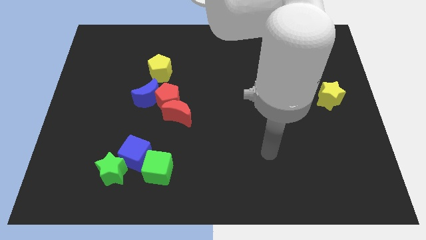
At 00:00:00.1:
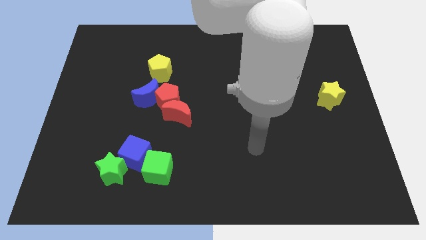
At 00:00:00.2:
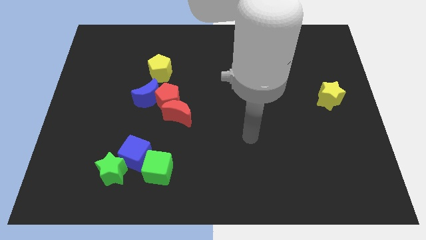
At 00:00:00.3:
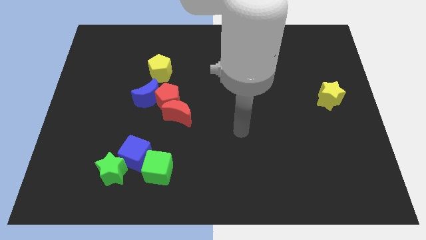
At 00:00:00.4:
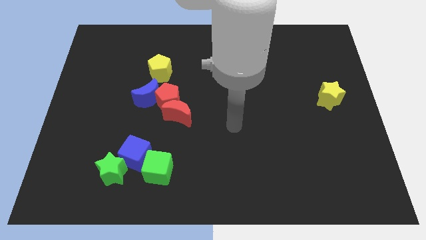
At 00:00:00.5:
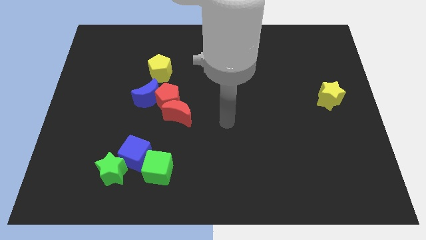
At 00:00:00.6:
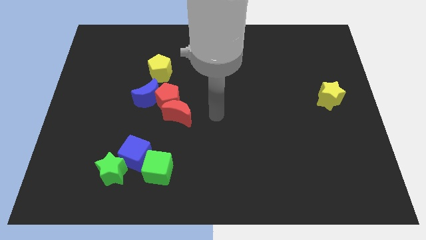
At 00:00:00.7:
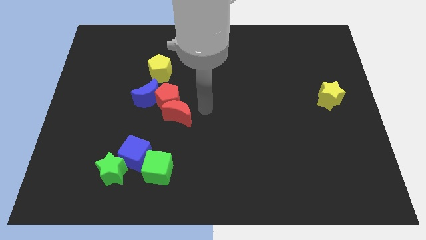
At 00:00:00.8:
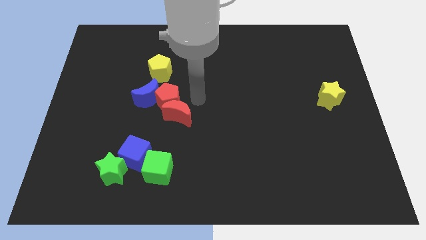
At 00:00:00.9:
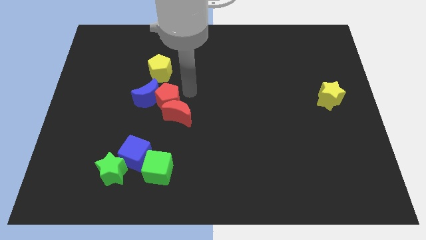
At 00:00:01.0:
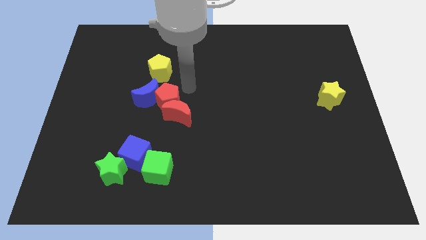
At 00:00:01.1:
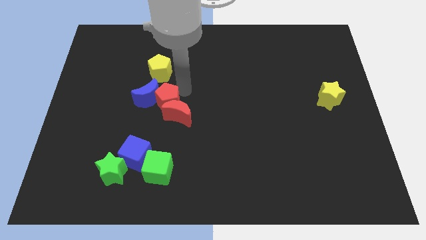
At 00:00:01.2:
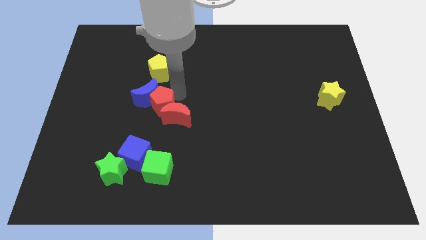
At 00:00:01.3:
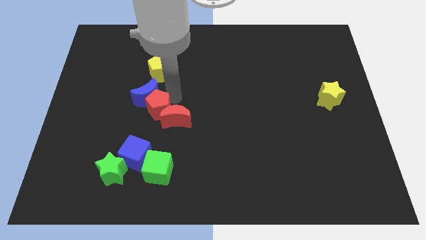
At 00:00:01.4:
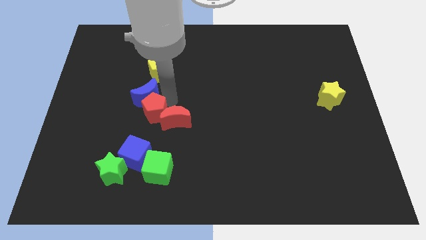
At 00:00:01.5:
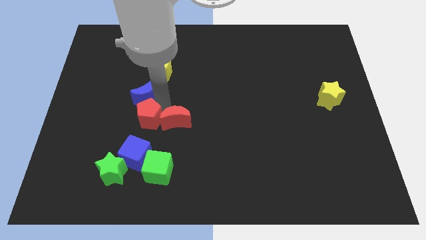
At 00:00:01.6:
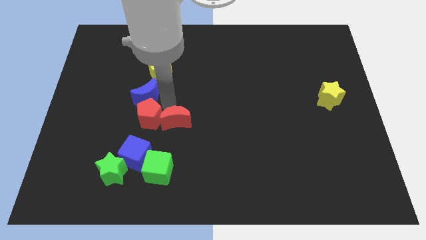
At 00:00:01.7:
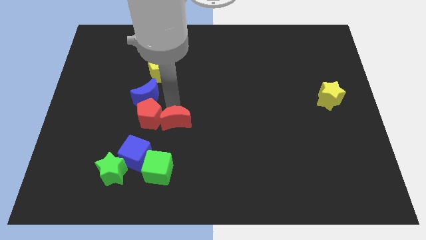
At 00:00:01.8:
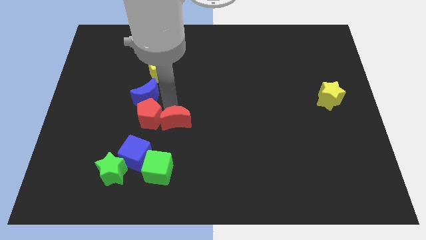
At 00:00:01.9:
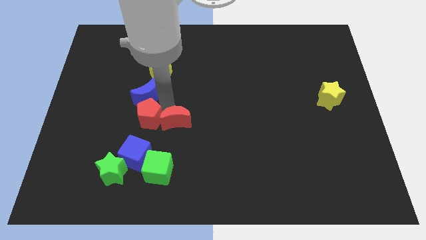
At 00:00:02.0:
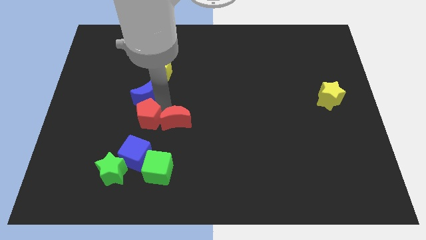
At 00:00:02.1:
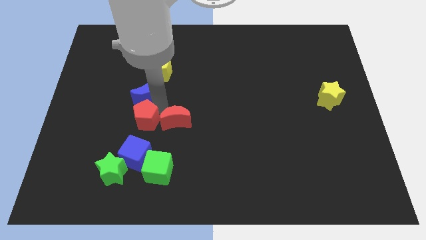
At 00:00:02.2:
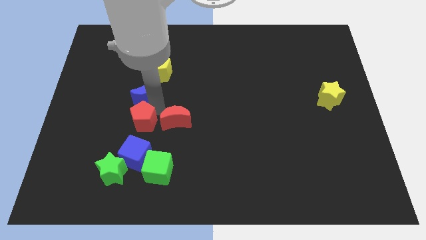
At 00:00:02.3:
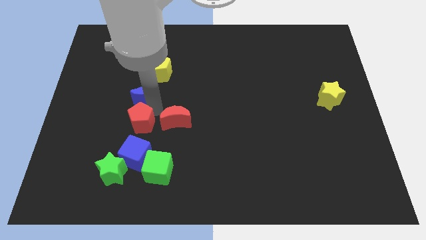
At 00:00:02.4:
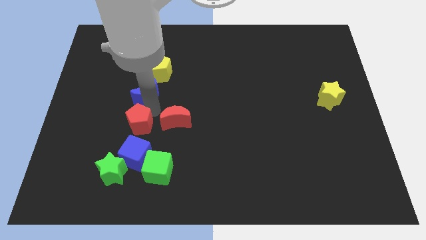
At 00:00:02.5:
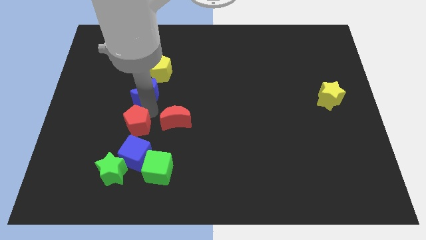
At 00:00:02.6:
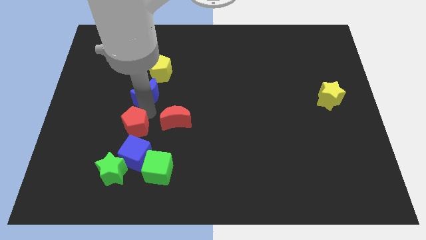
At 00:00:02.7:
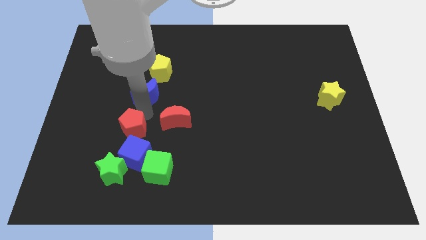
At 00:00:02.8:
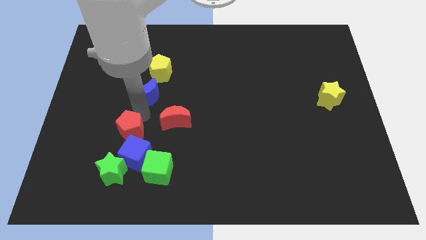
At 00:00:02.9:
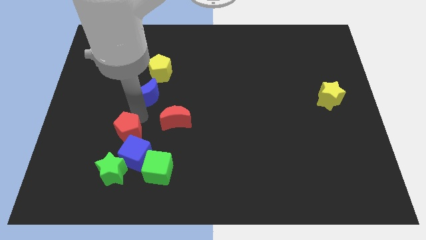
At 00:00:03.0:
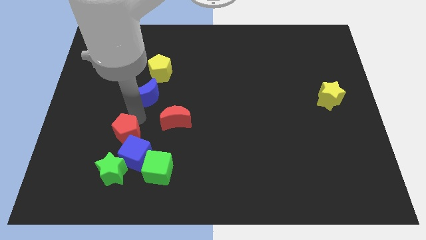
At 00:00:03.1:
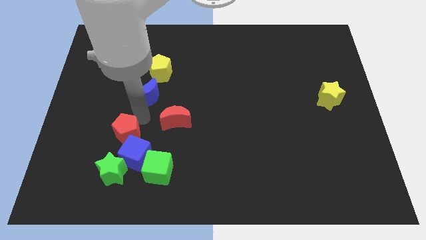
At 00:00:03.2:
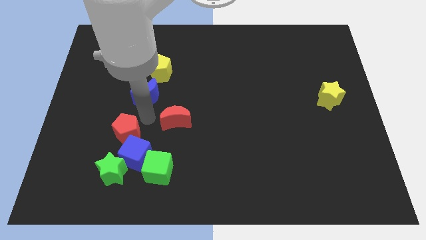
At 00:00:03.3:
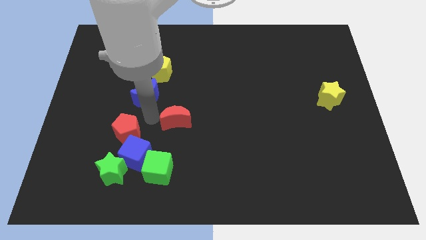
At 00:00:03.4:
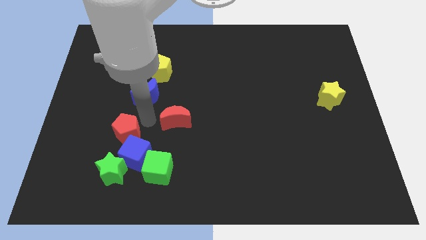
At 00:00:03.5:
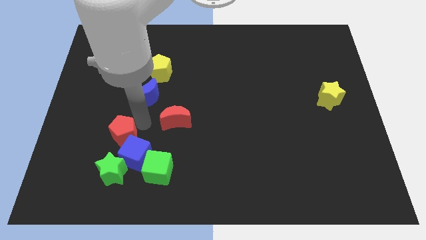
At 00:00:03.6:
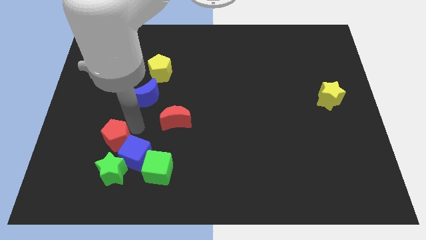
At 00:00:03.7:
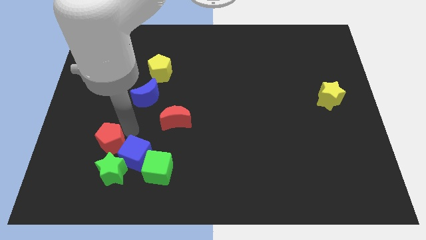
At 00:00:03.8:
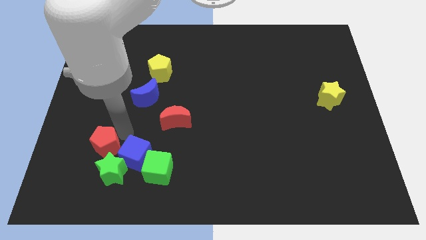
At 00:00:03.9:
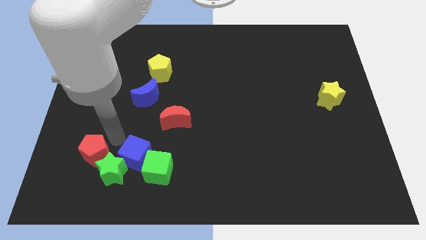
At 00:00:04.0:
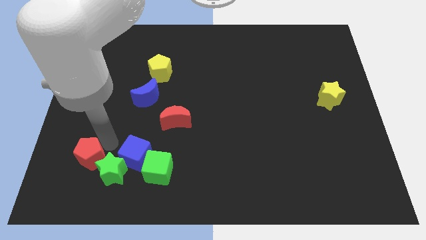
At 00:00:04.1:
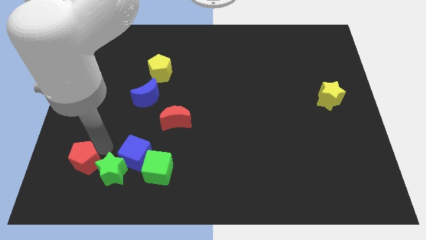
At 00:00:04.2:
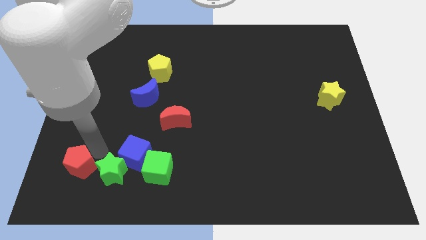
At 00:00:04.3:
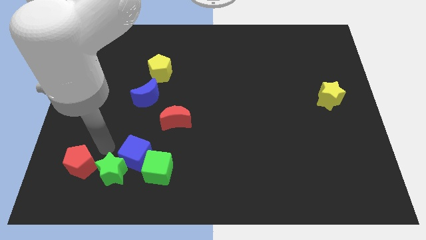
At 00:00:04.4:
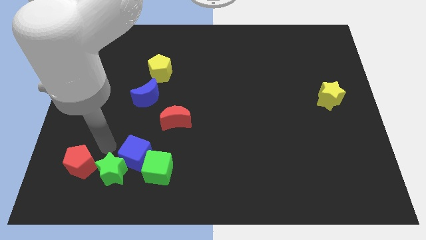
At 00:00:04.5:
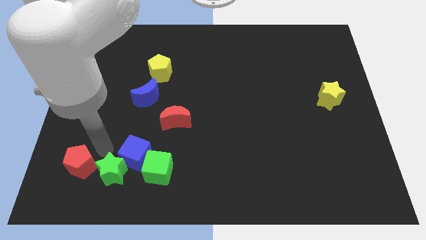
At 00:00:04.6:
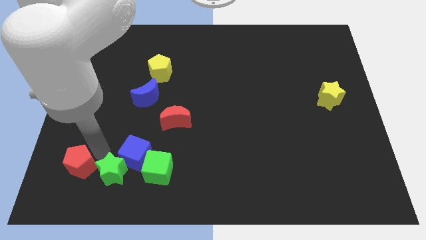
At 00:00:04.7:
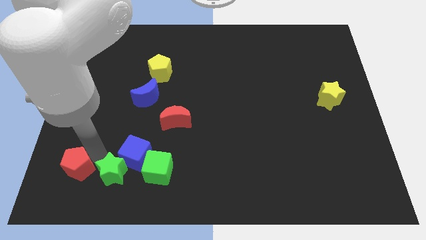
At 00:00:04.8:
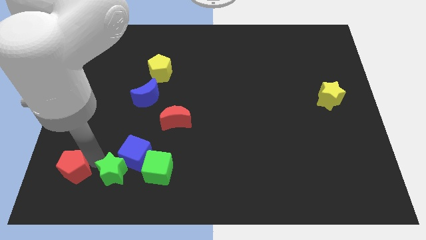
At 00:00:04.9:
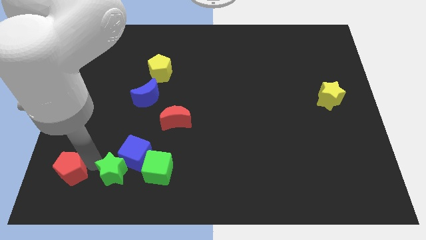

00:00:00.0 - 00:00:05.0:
slide the red pentagon to the lower left corner

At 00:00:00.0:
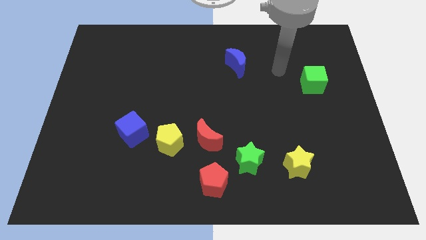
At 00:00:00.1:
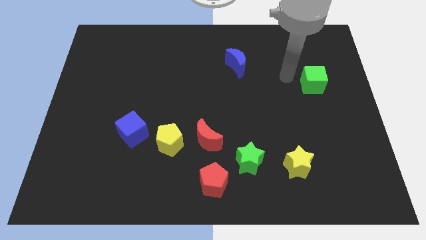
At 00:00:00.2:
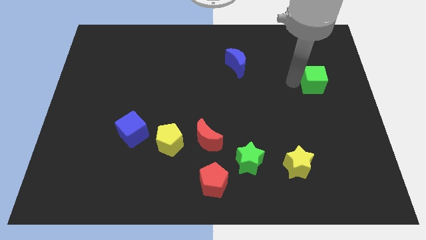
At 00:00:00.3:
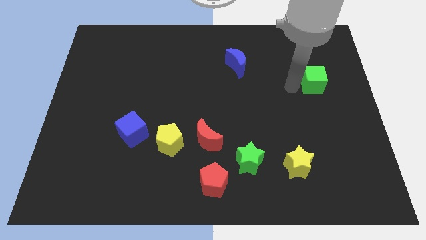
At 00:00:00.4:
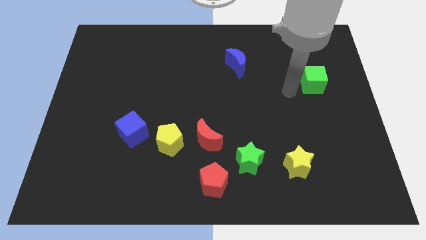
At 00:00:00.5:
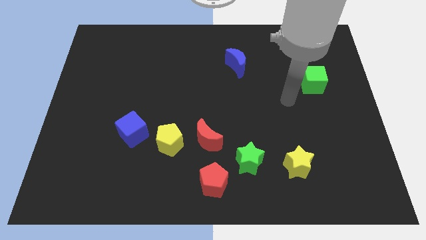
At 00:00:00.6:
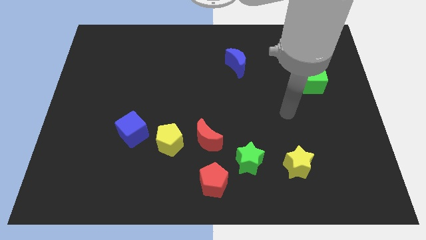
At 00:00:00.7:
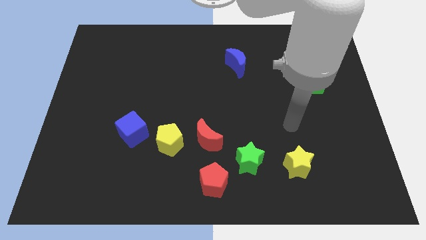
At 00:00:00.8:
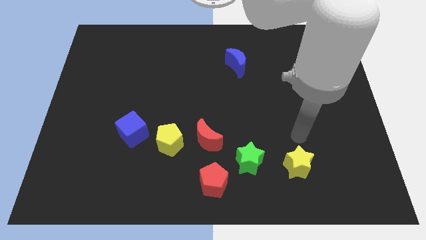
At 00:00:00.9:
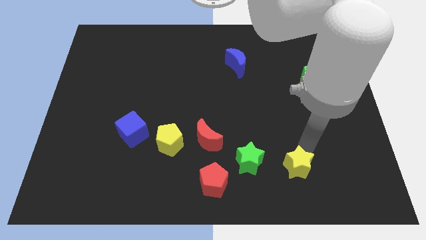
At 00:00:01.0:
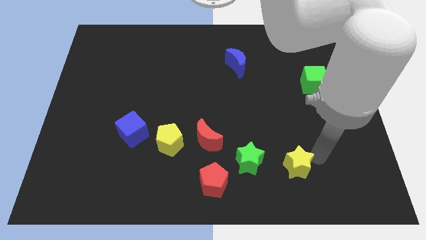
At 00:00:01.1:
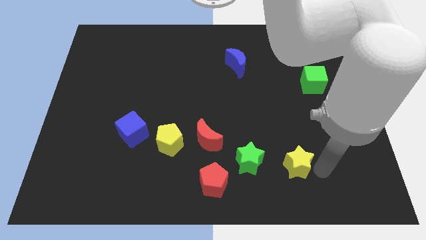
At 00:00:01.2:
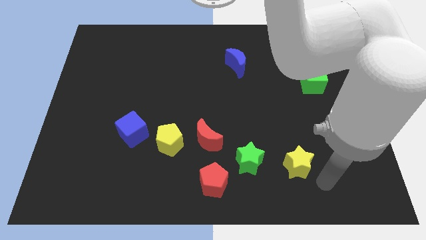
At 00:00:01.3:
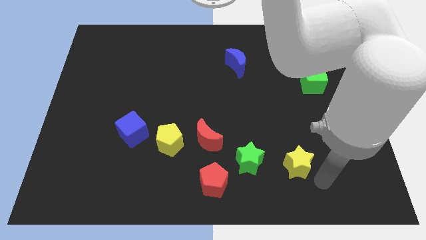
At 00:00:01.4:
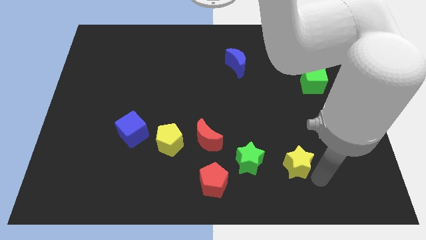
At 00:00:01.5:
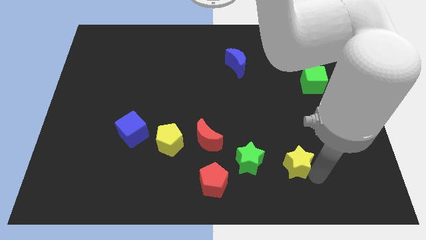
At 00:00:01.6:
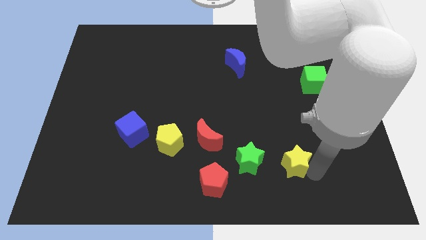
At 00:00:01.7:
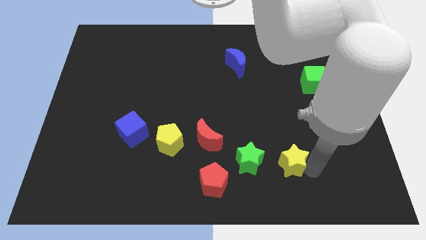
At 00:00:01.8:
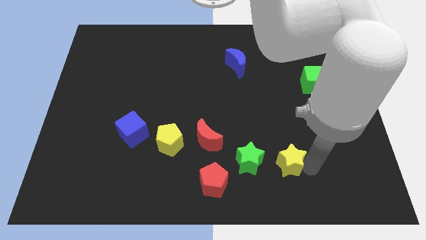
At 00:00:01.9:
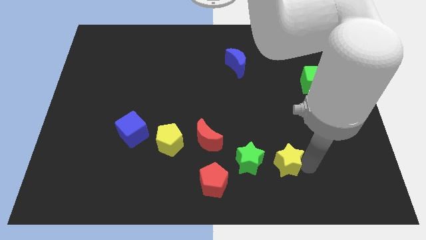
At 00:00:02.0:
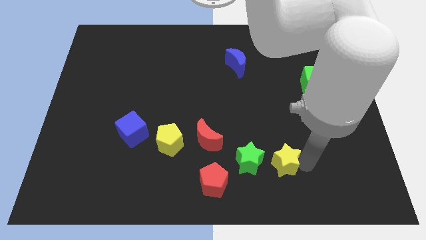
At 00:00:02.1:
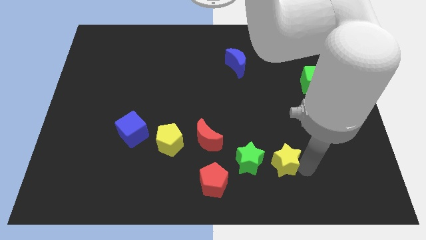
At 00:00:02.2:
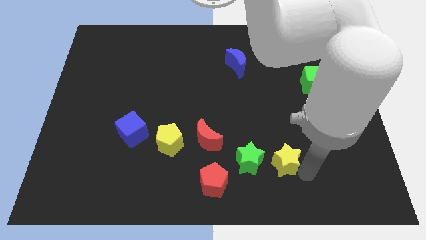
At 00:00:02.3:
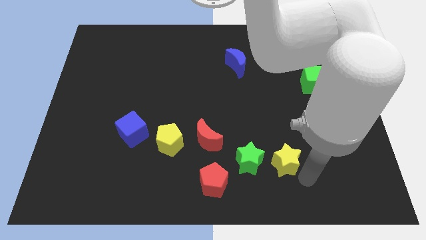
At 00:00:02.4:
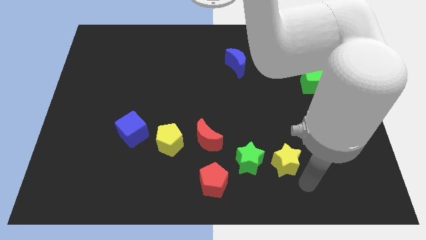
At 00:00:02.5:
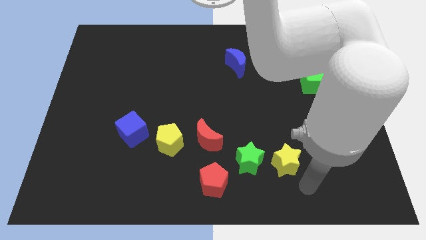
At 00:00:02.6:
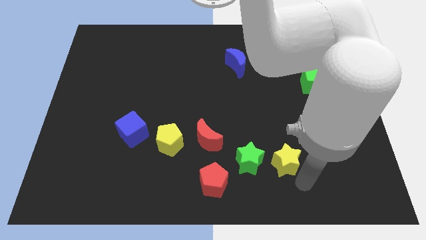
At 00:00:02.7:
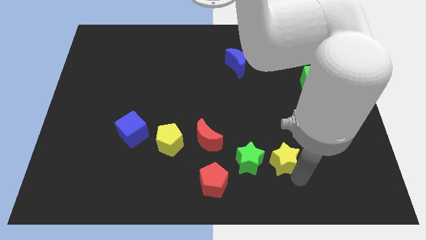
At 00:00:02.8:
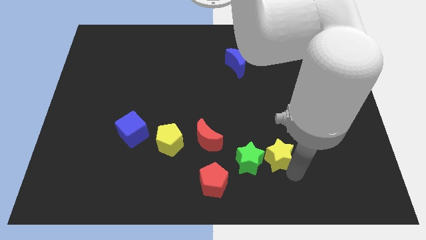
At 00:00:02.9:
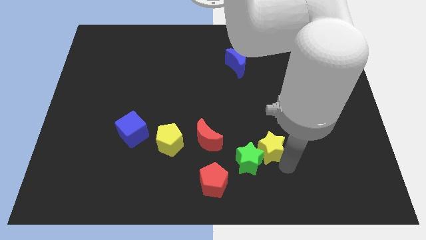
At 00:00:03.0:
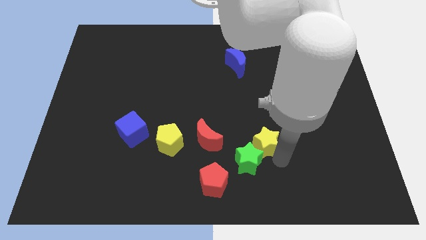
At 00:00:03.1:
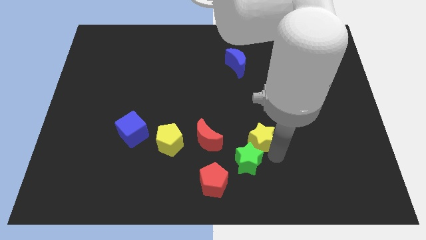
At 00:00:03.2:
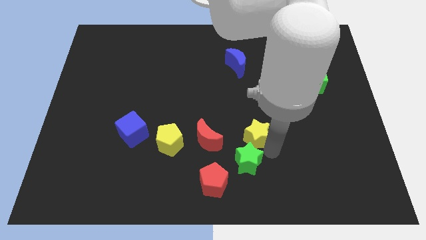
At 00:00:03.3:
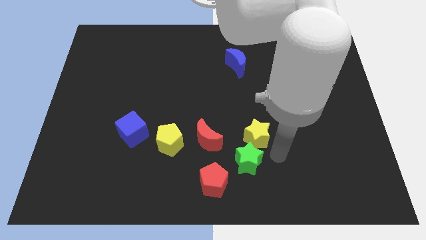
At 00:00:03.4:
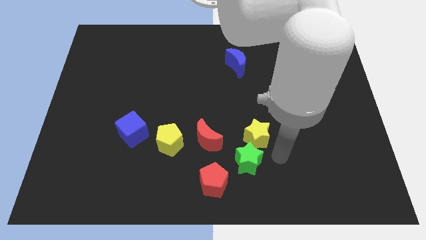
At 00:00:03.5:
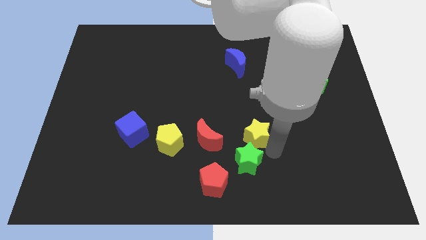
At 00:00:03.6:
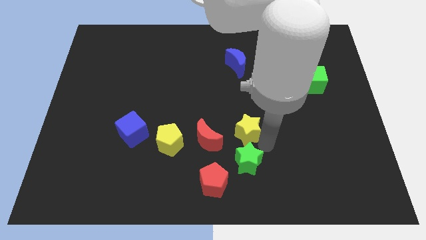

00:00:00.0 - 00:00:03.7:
push the yellow star to the center
